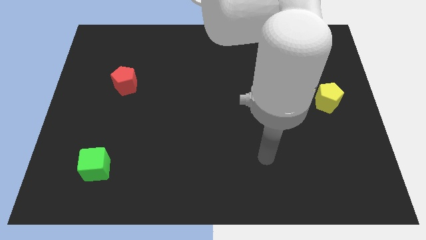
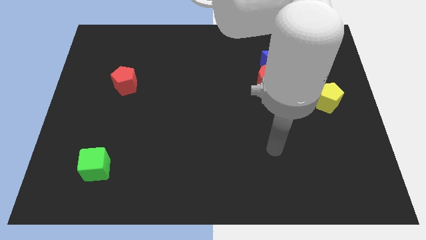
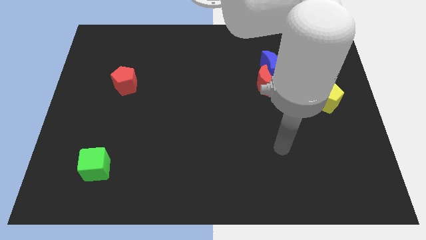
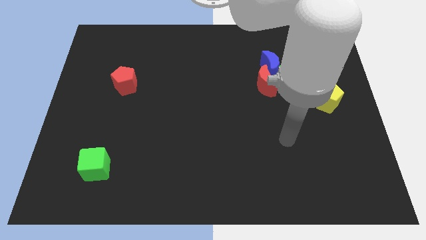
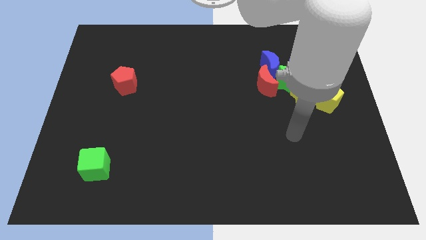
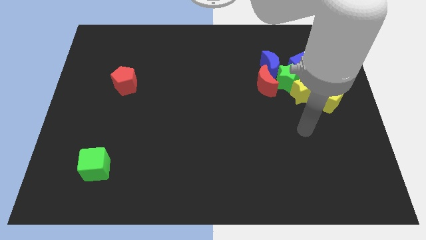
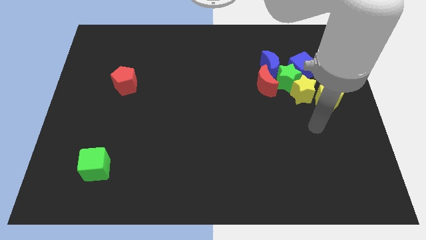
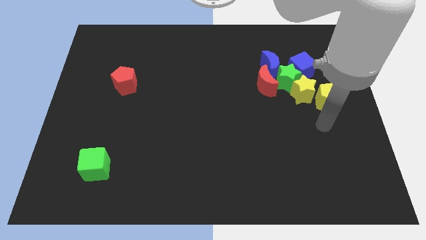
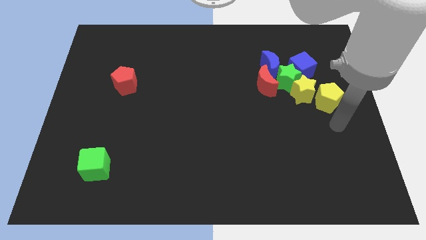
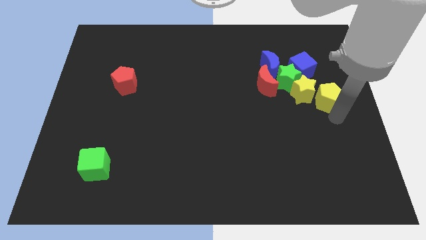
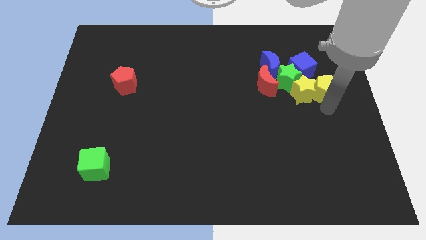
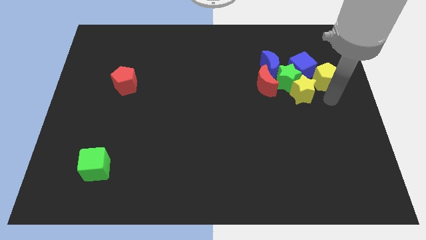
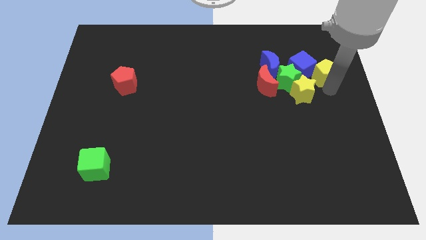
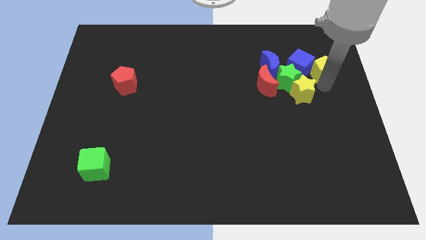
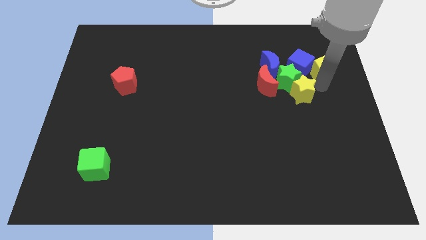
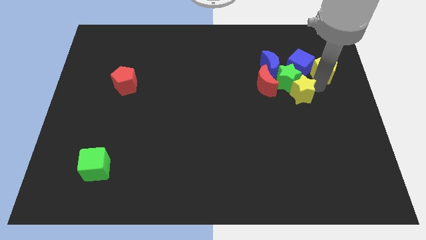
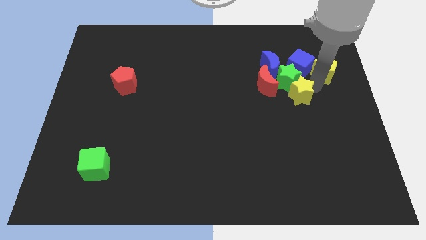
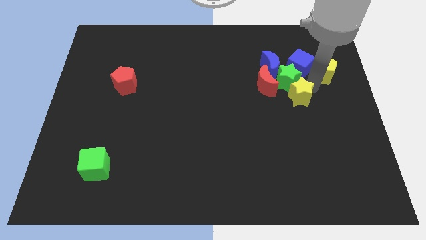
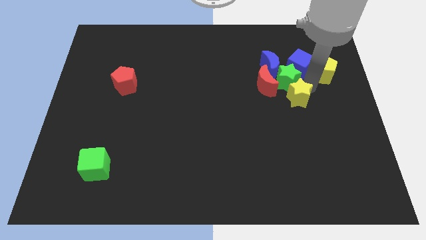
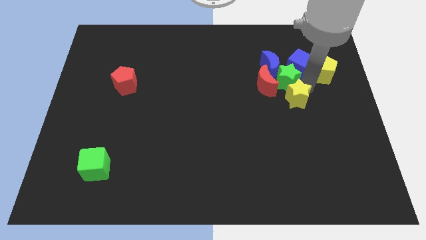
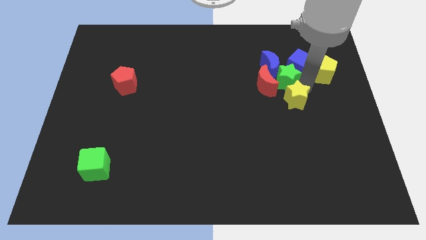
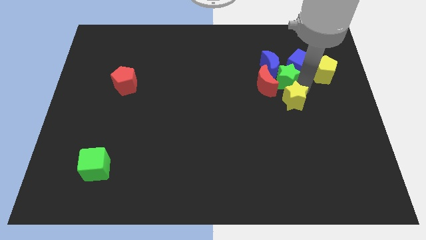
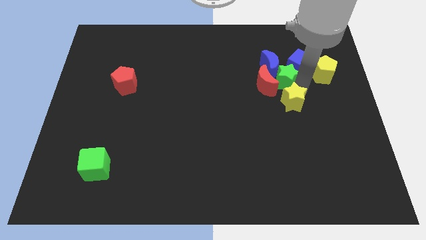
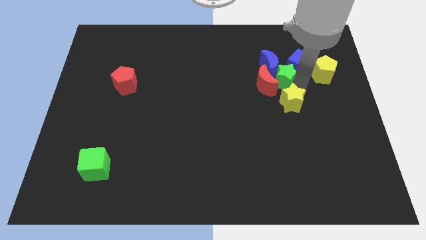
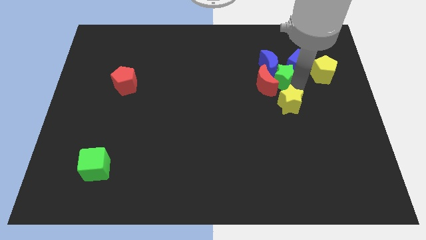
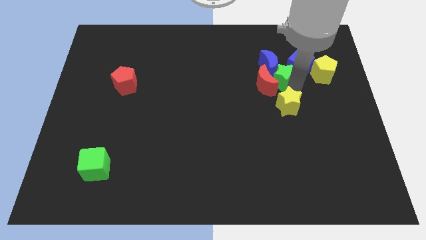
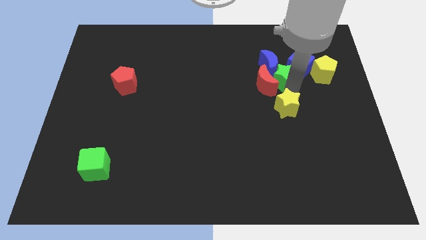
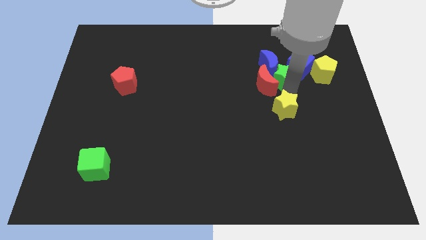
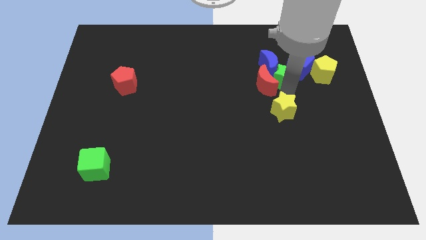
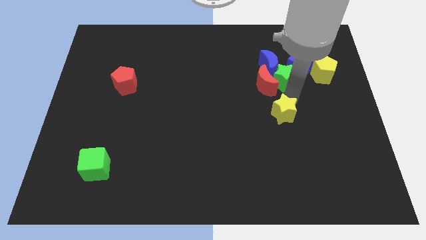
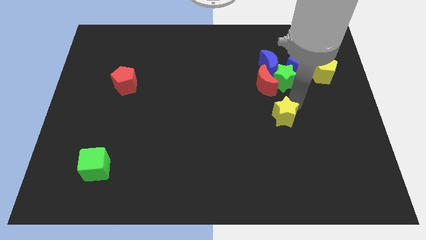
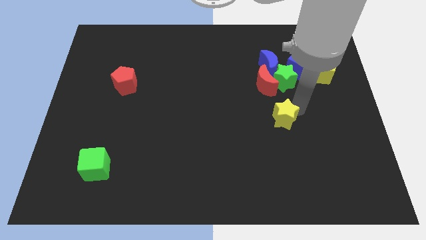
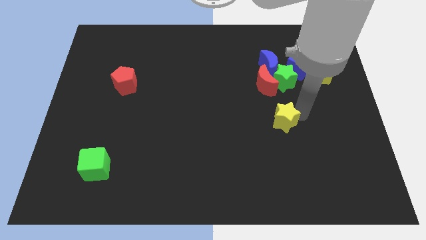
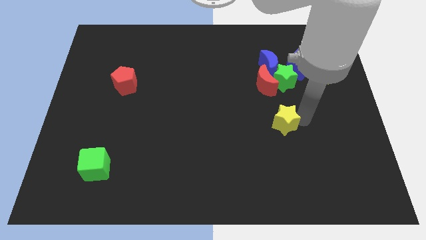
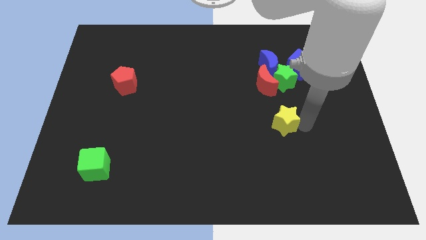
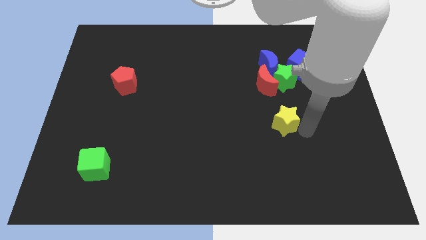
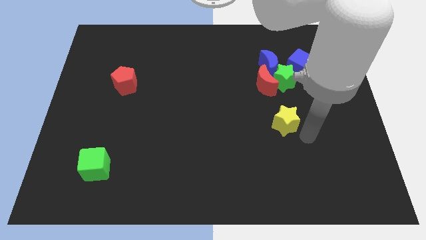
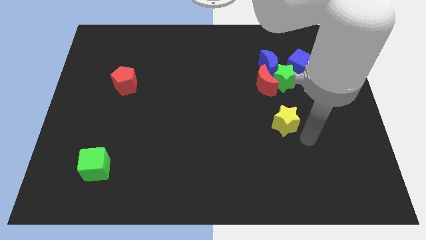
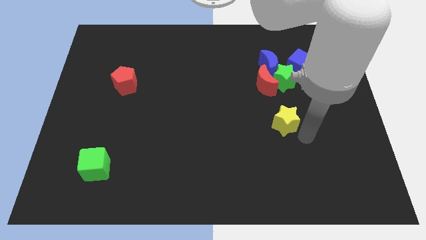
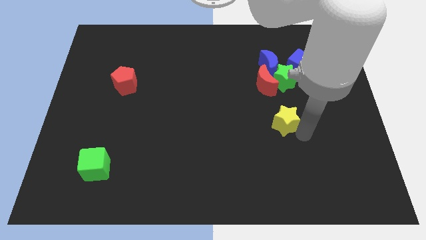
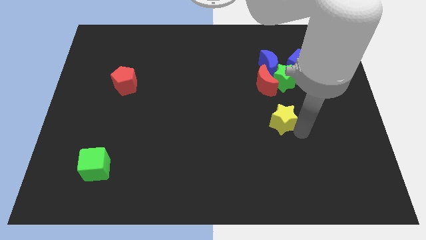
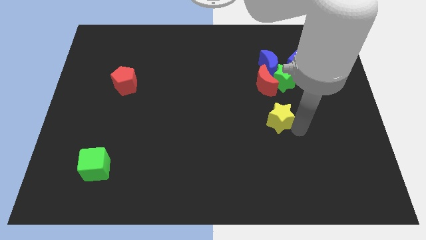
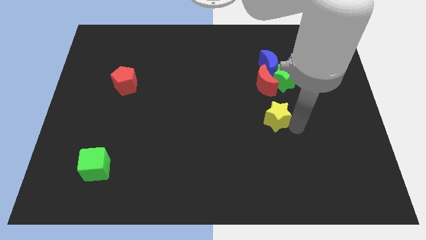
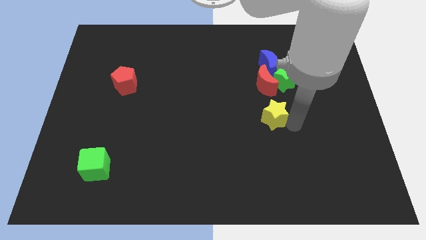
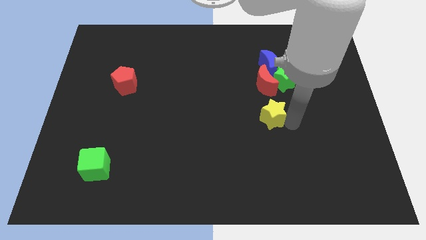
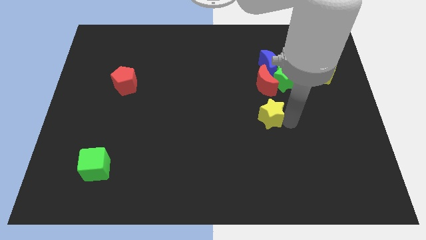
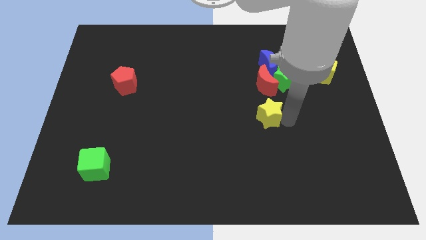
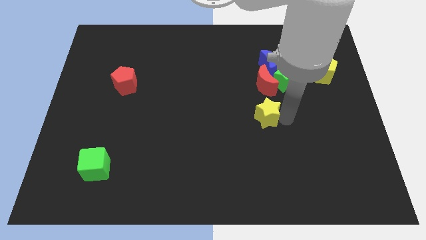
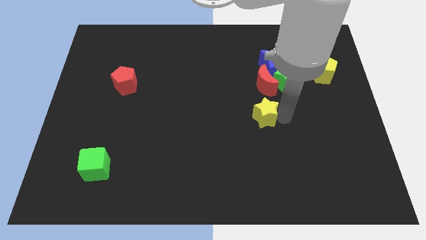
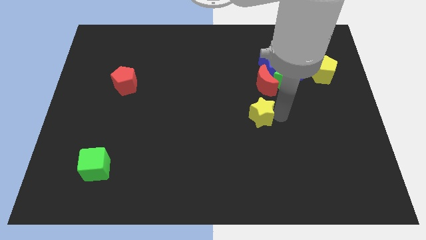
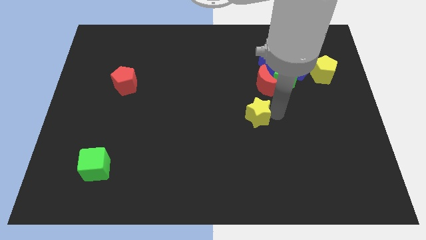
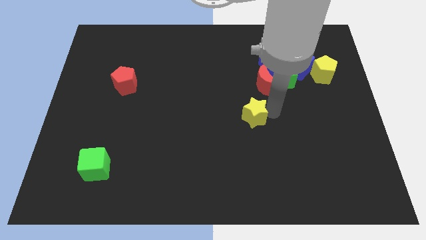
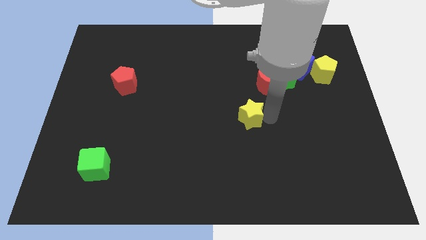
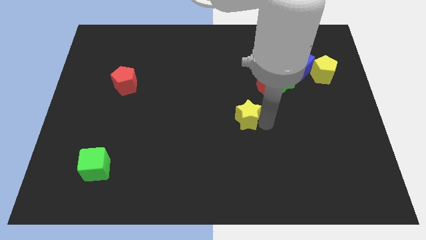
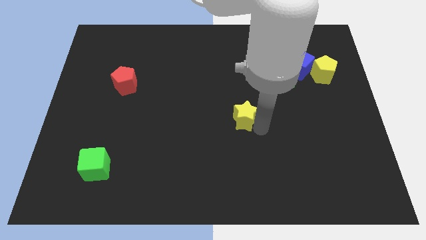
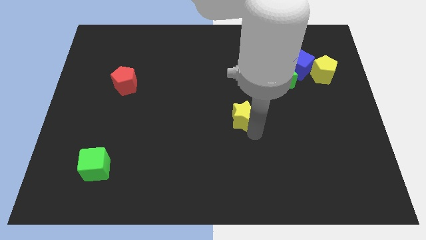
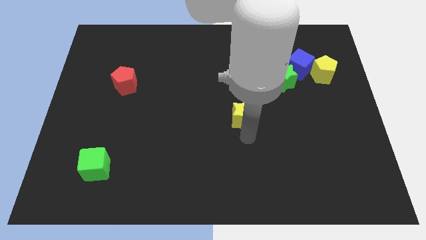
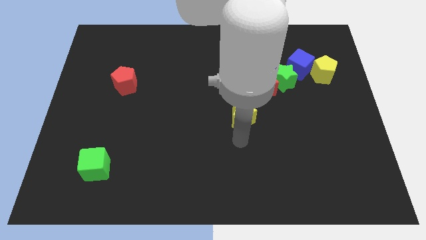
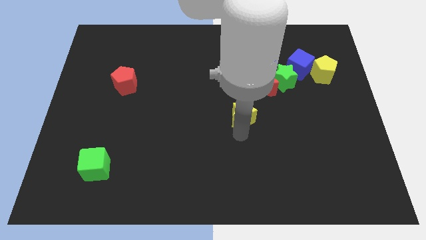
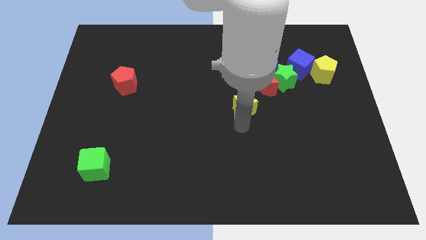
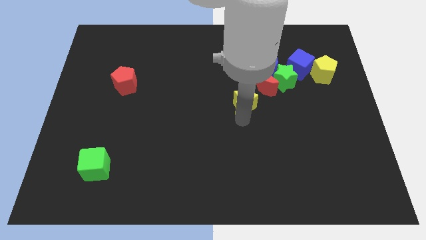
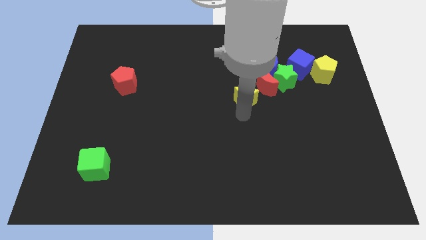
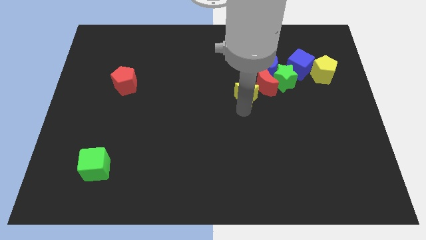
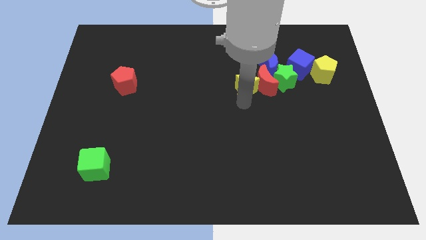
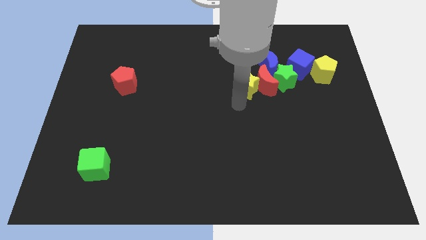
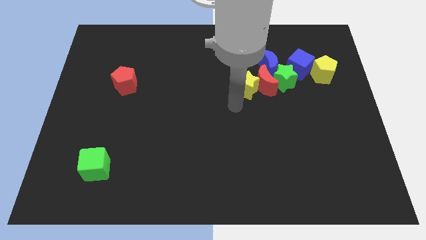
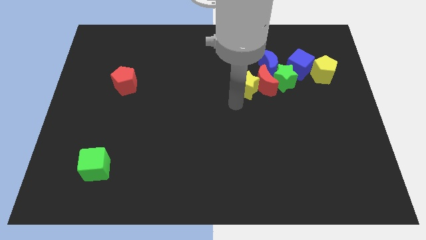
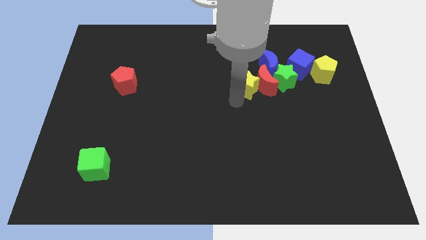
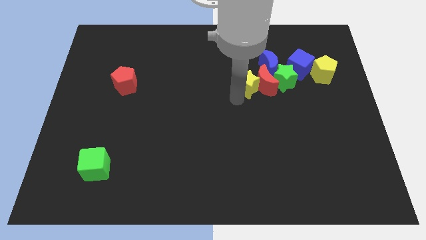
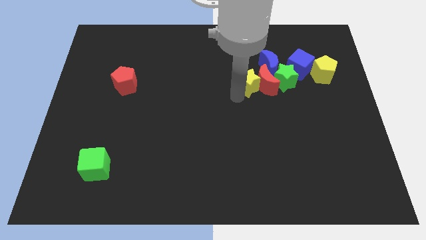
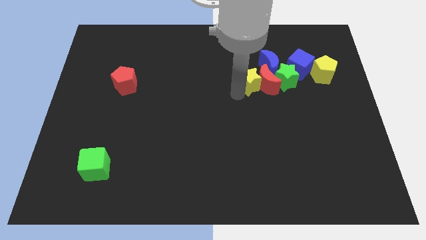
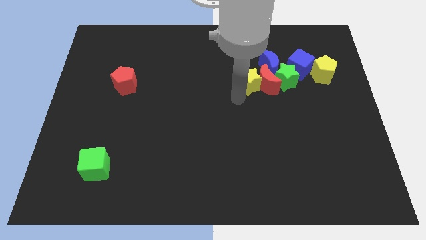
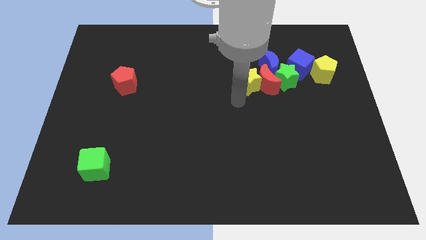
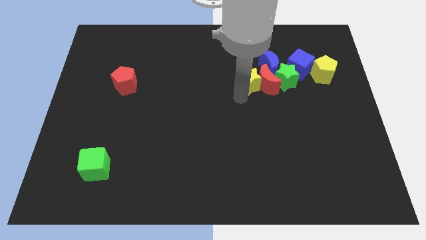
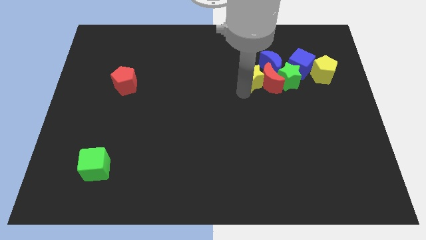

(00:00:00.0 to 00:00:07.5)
slide the yellow star just left of the blue cube
